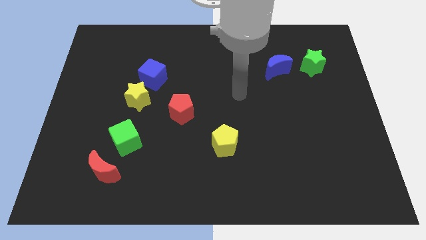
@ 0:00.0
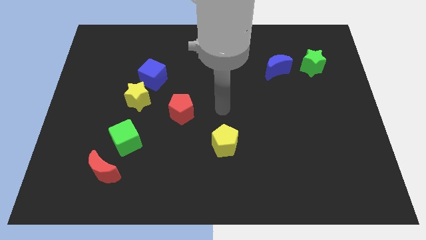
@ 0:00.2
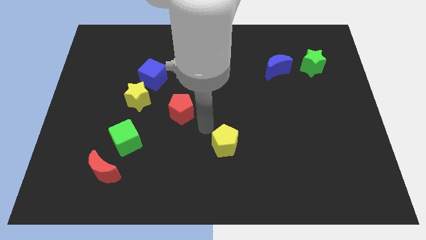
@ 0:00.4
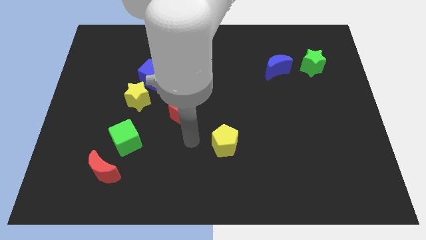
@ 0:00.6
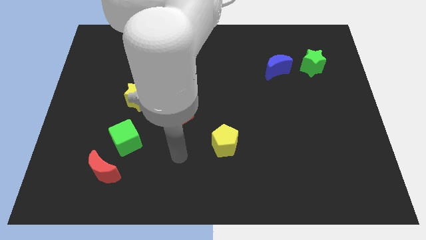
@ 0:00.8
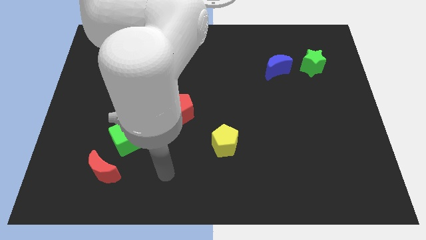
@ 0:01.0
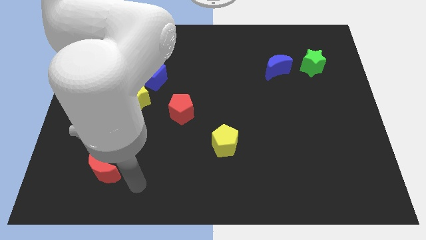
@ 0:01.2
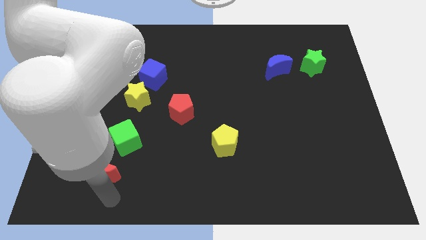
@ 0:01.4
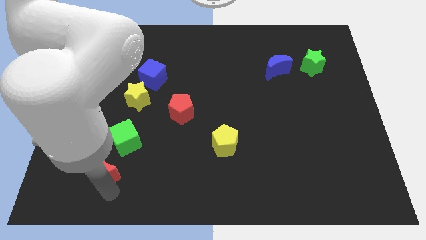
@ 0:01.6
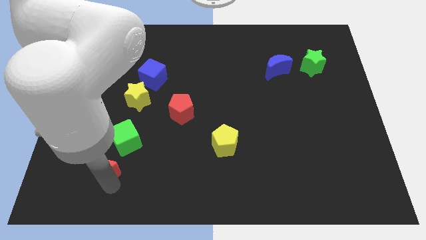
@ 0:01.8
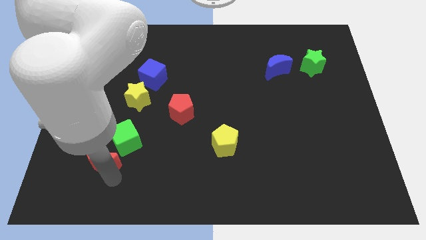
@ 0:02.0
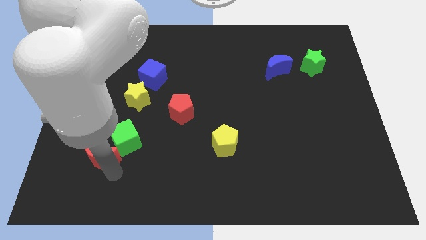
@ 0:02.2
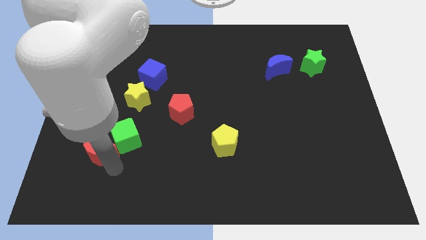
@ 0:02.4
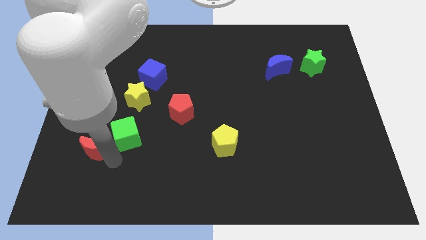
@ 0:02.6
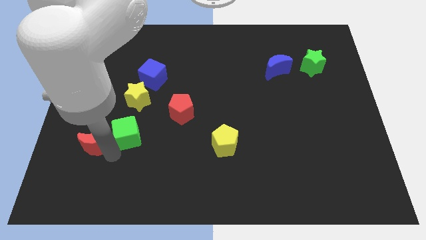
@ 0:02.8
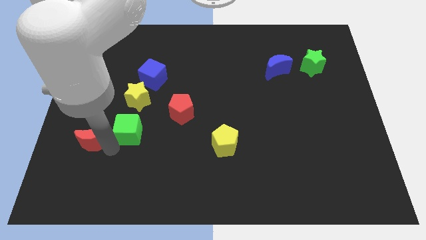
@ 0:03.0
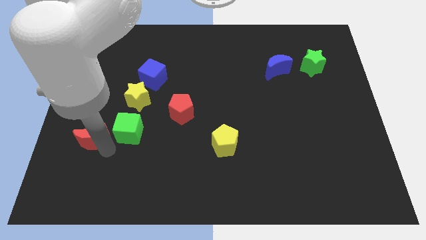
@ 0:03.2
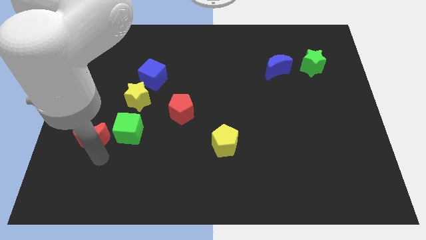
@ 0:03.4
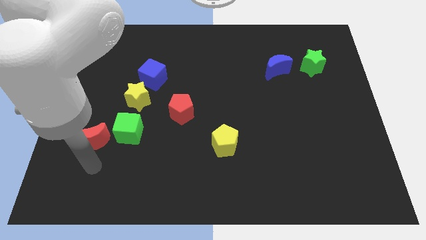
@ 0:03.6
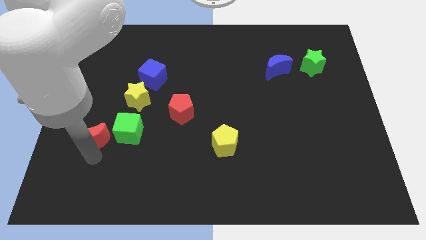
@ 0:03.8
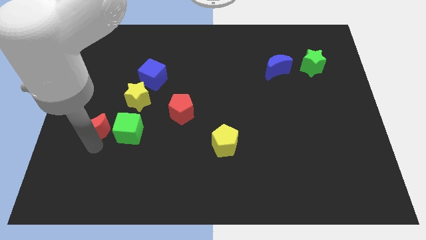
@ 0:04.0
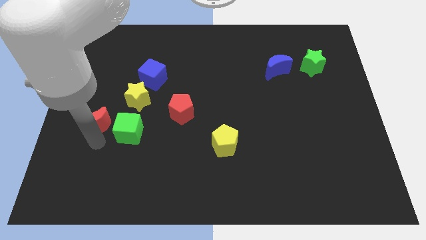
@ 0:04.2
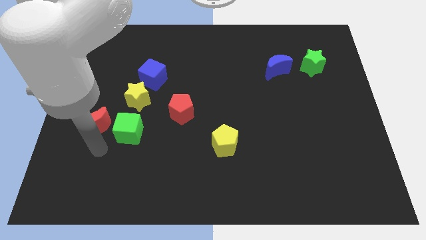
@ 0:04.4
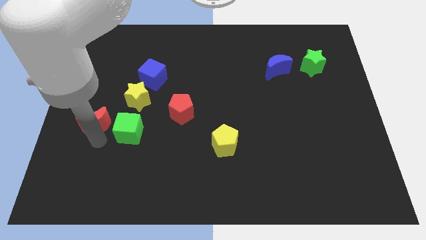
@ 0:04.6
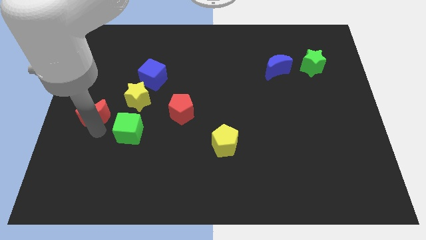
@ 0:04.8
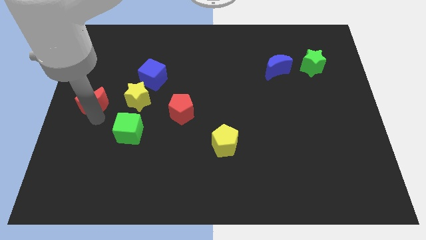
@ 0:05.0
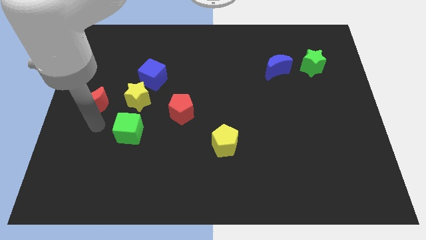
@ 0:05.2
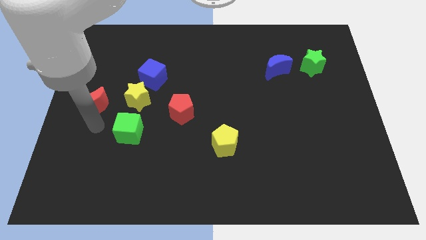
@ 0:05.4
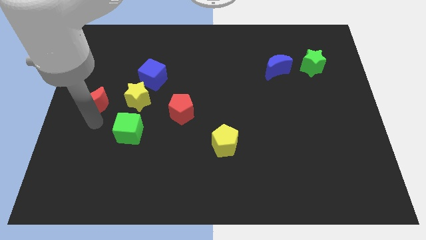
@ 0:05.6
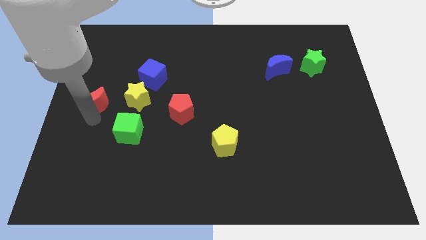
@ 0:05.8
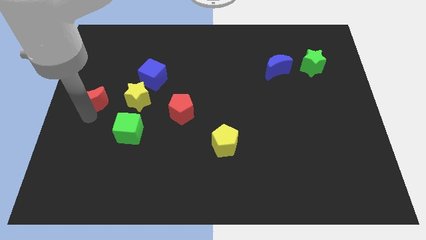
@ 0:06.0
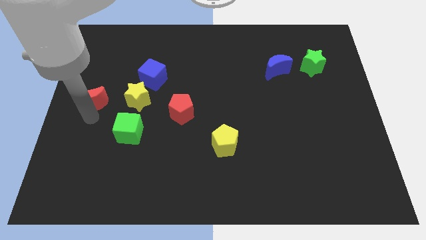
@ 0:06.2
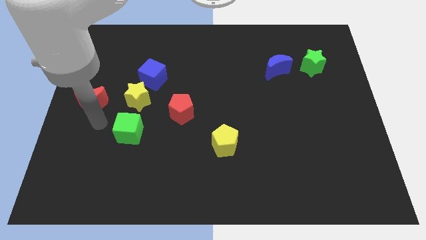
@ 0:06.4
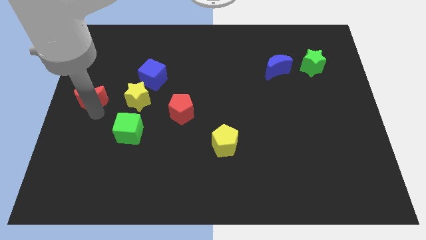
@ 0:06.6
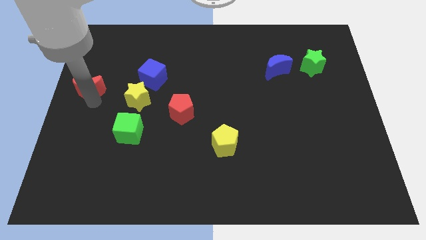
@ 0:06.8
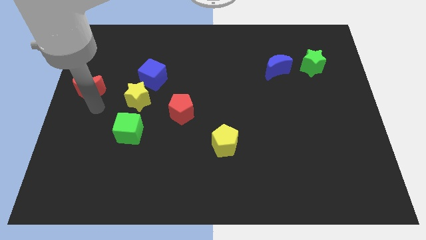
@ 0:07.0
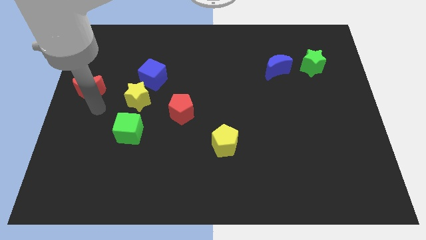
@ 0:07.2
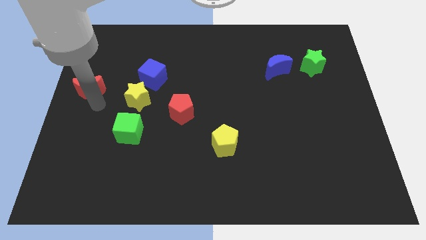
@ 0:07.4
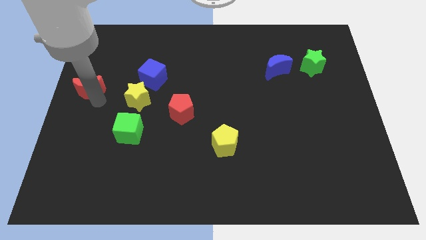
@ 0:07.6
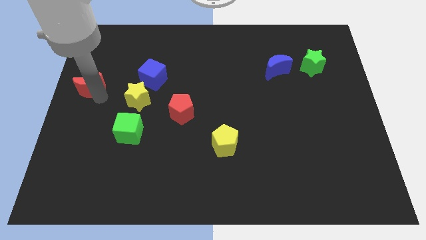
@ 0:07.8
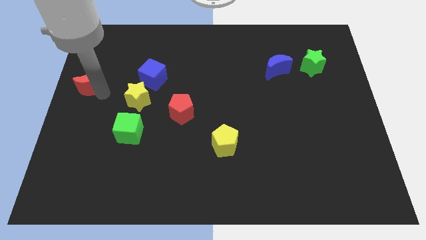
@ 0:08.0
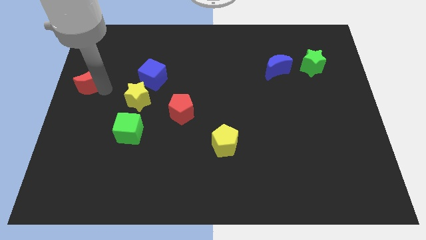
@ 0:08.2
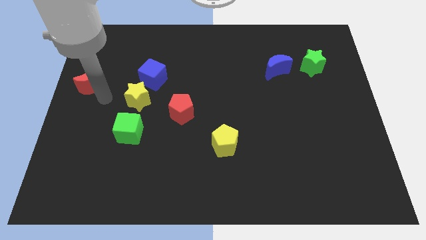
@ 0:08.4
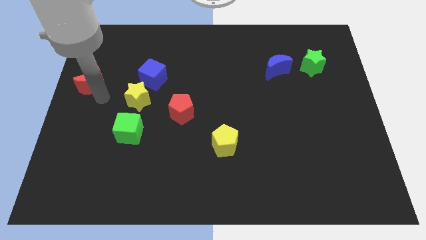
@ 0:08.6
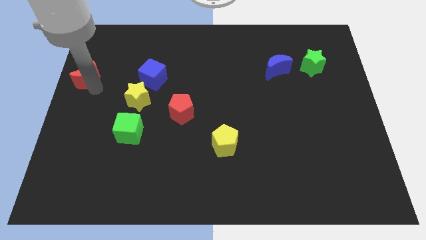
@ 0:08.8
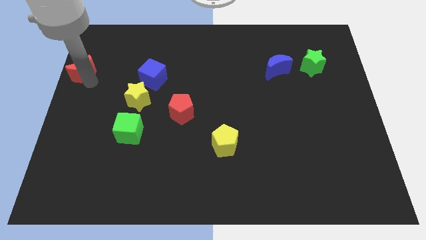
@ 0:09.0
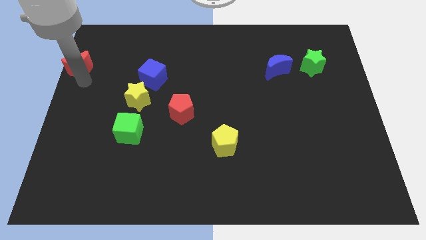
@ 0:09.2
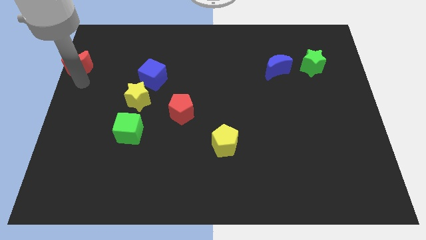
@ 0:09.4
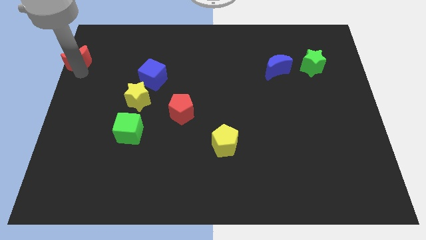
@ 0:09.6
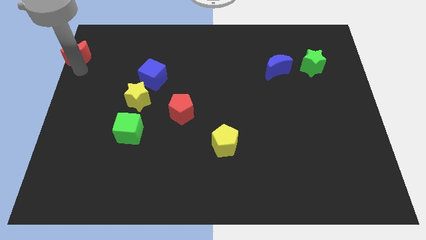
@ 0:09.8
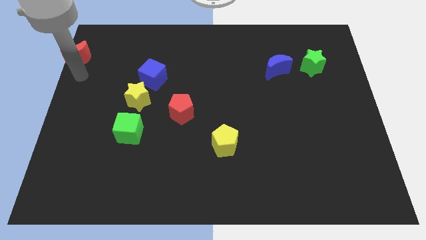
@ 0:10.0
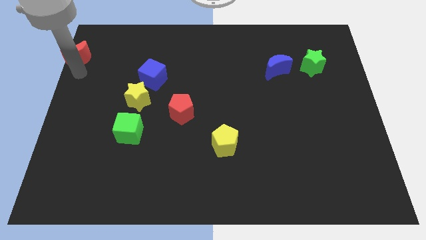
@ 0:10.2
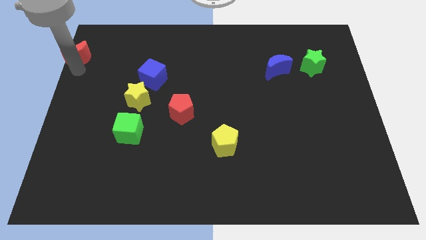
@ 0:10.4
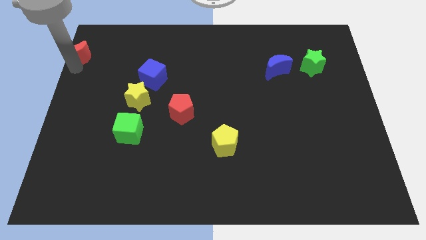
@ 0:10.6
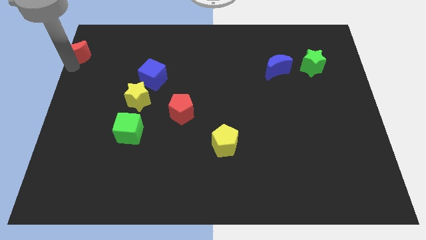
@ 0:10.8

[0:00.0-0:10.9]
move the red moon to the top left of the board
